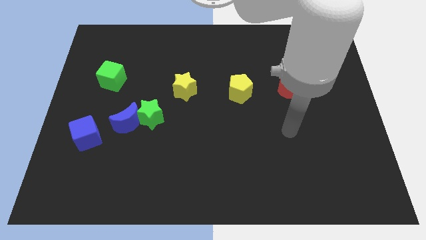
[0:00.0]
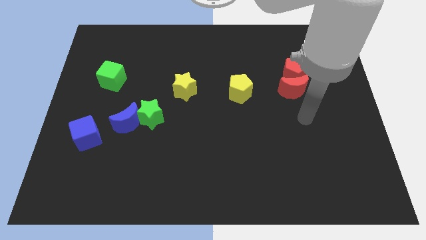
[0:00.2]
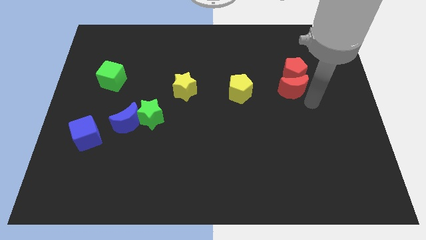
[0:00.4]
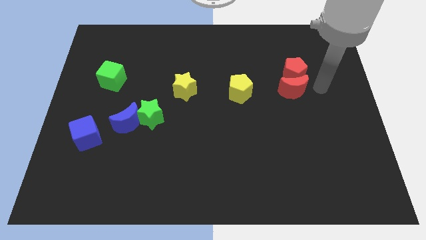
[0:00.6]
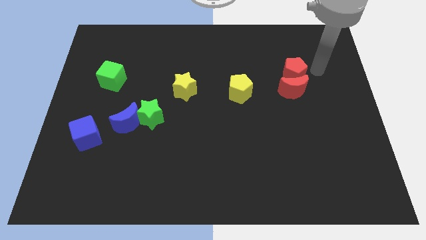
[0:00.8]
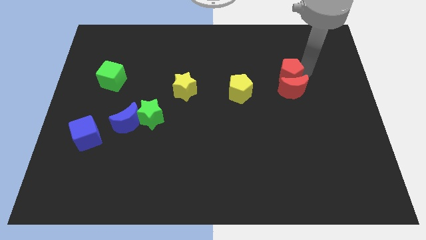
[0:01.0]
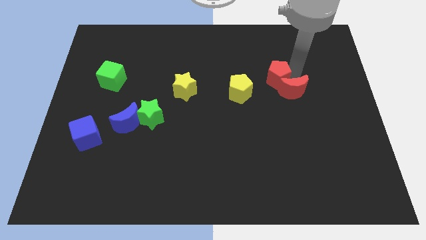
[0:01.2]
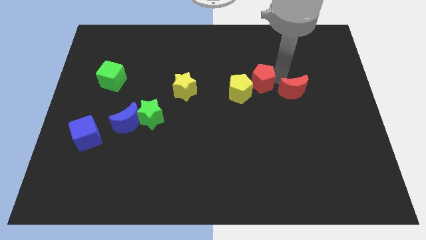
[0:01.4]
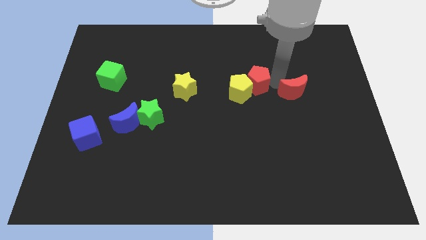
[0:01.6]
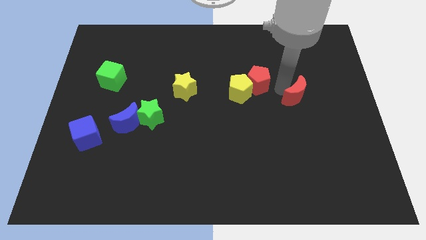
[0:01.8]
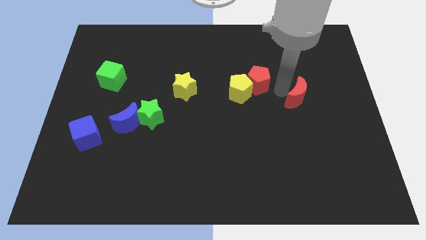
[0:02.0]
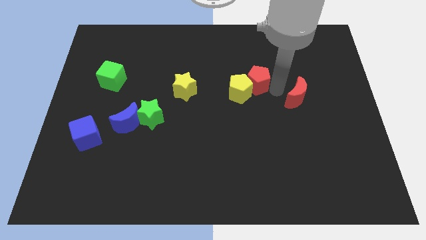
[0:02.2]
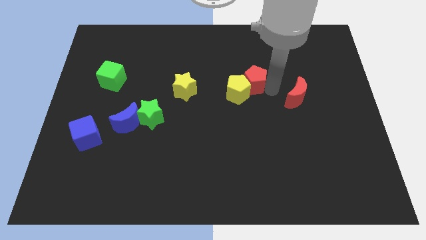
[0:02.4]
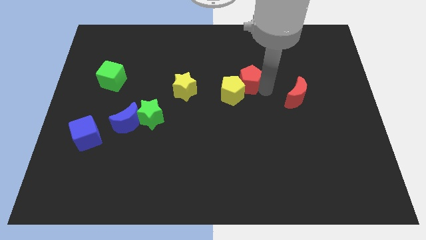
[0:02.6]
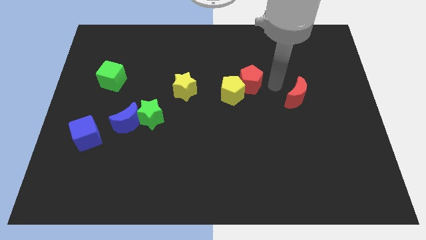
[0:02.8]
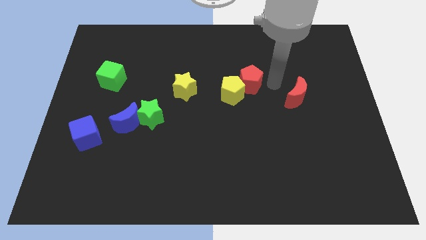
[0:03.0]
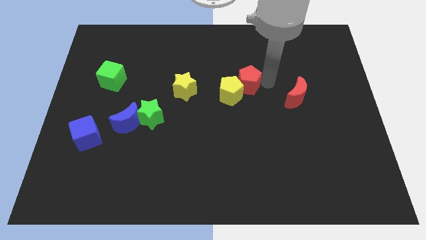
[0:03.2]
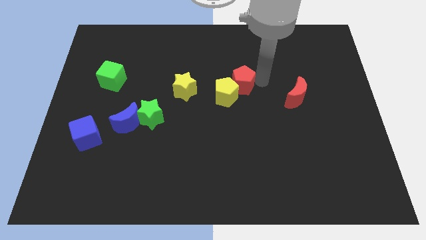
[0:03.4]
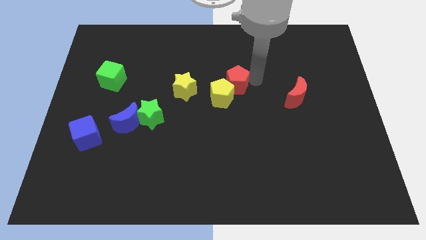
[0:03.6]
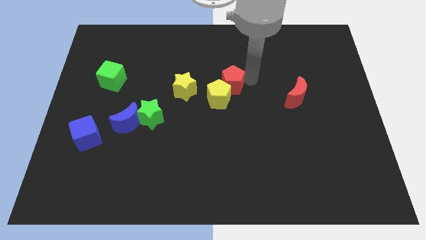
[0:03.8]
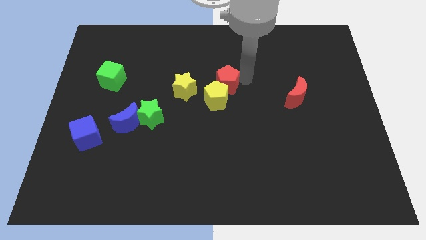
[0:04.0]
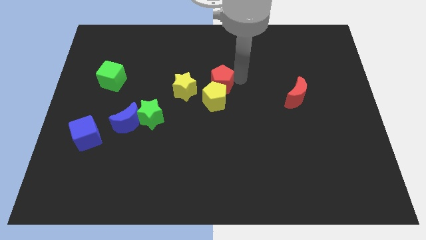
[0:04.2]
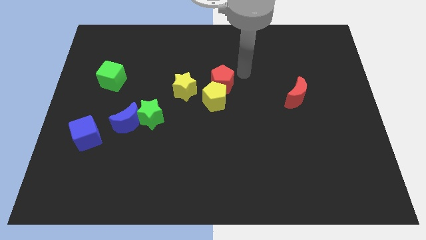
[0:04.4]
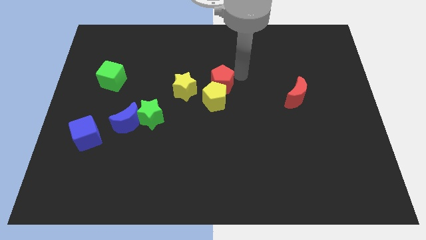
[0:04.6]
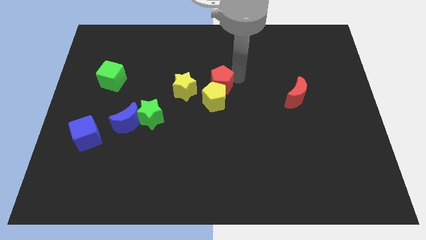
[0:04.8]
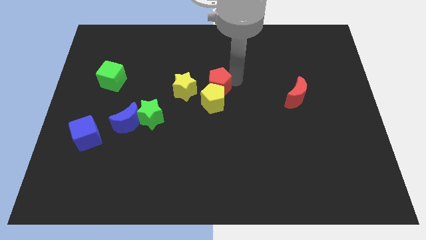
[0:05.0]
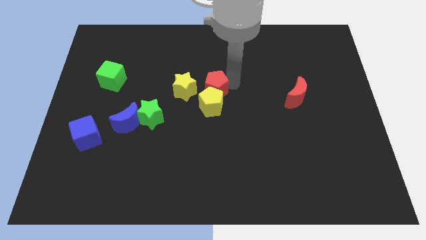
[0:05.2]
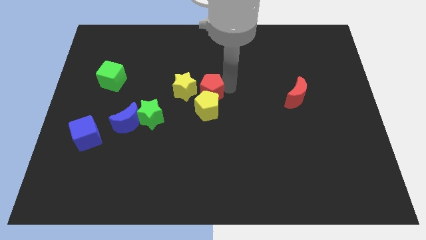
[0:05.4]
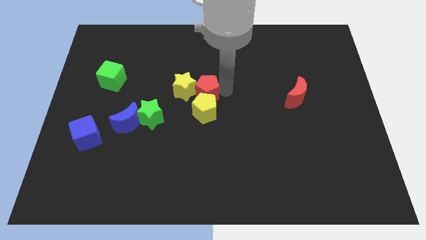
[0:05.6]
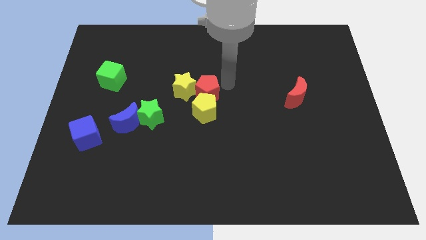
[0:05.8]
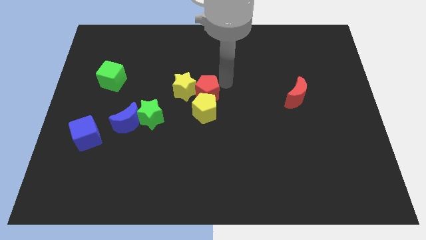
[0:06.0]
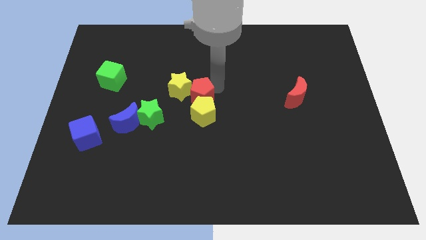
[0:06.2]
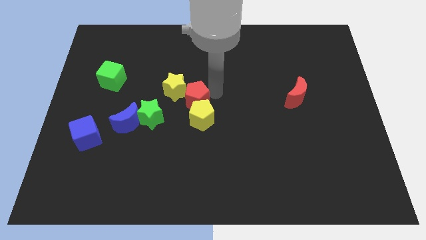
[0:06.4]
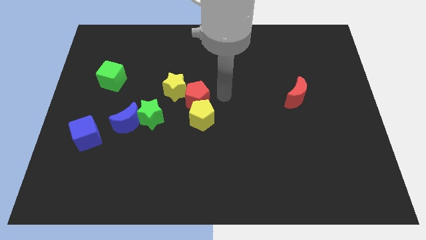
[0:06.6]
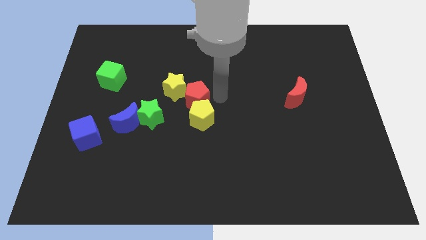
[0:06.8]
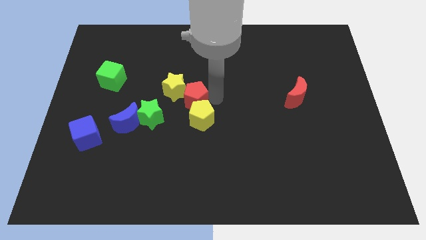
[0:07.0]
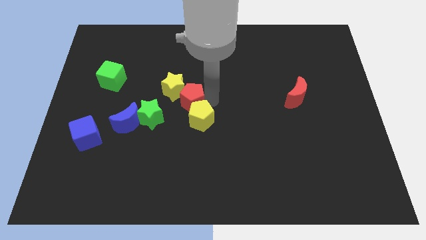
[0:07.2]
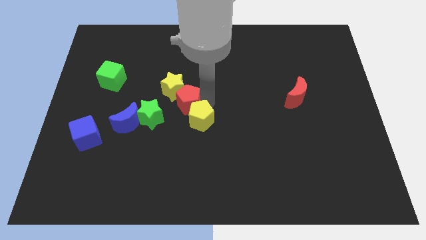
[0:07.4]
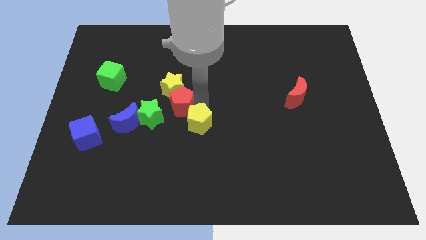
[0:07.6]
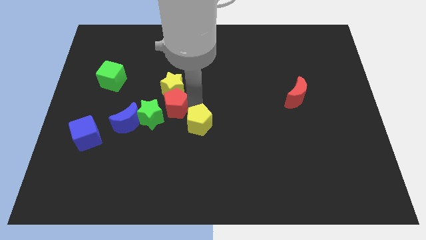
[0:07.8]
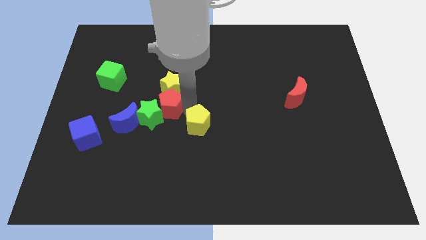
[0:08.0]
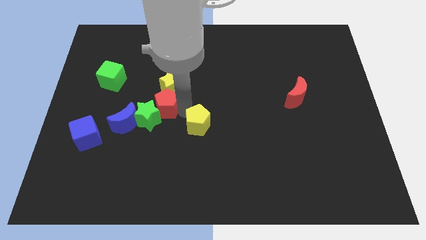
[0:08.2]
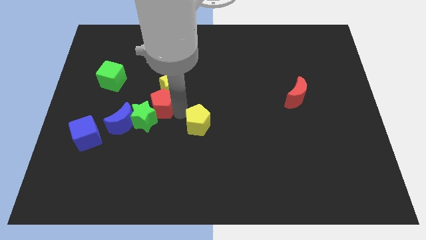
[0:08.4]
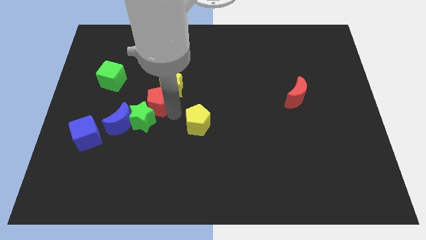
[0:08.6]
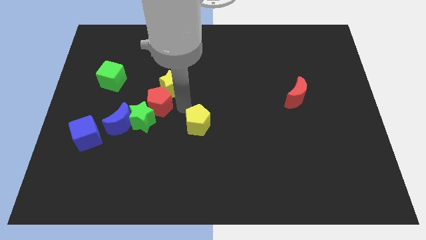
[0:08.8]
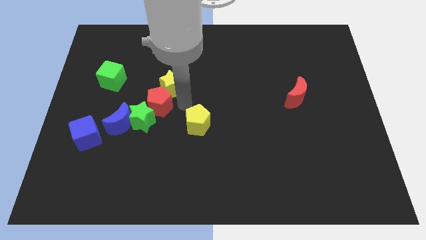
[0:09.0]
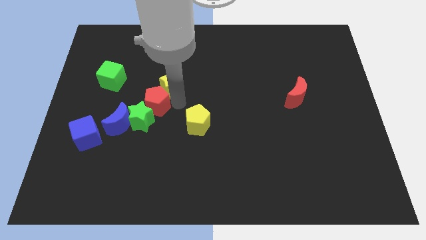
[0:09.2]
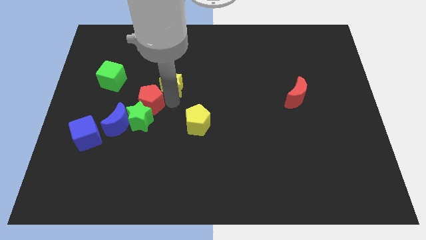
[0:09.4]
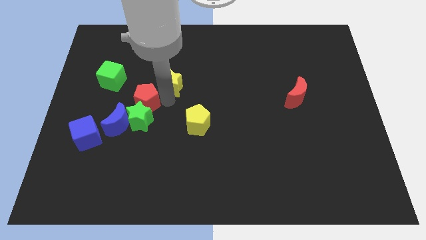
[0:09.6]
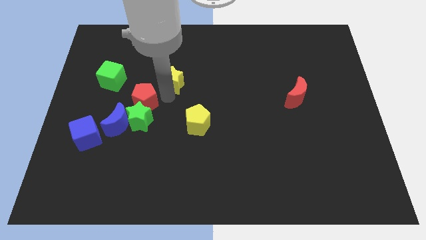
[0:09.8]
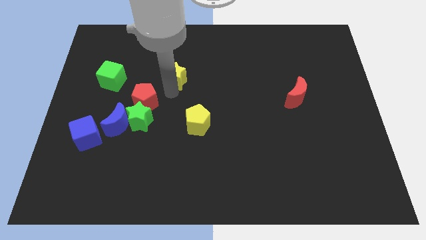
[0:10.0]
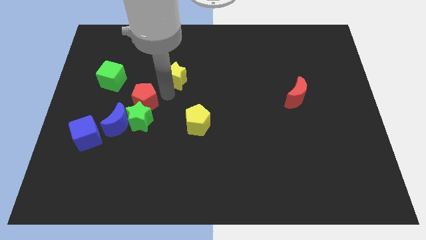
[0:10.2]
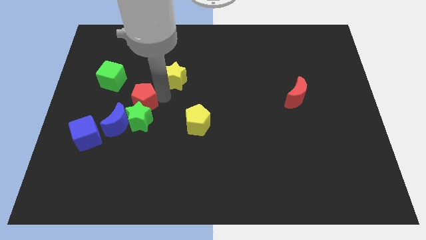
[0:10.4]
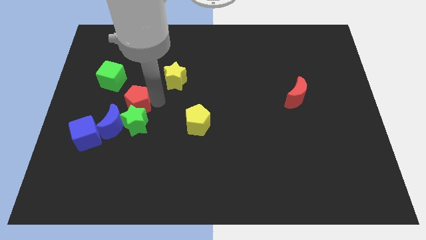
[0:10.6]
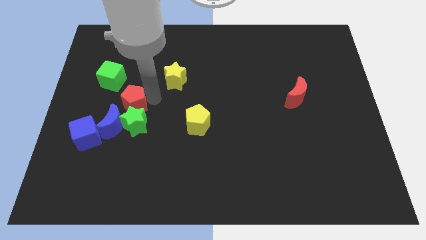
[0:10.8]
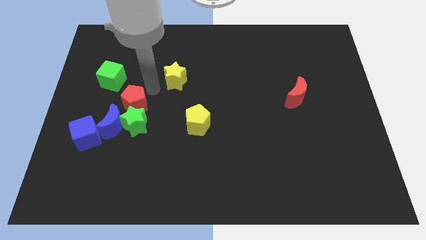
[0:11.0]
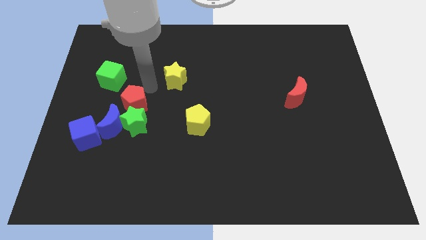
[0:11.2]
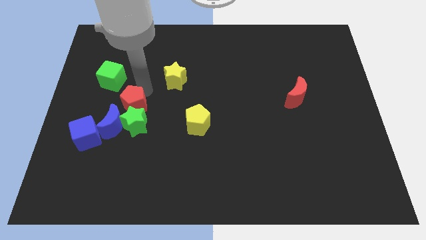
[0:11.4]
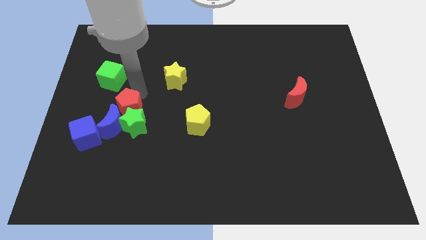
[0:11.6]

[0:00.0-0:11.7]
slide the red pentagon to the blue moon

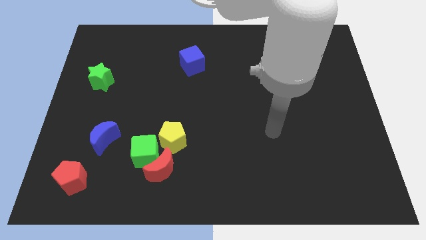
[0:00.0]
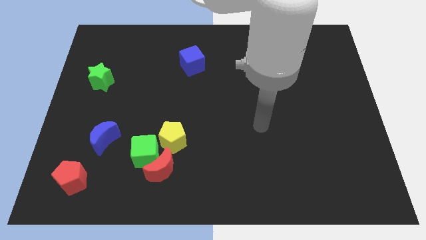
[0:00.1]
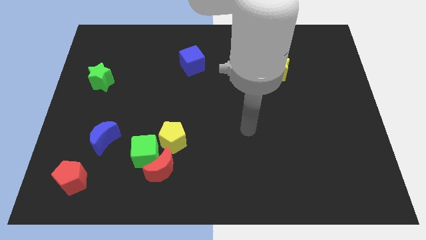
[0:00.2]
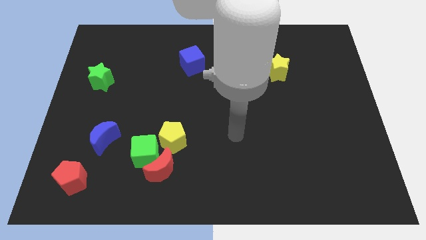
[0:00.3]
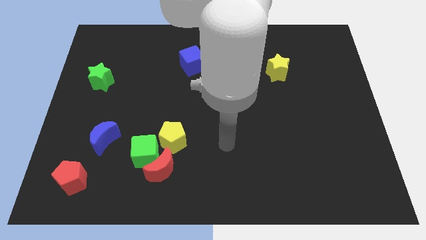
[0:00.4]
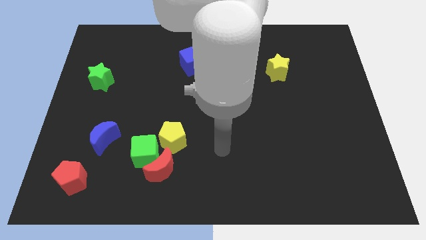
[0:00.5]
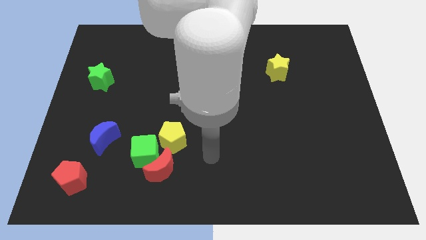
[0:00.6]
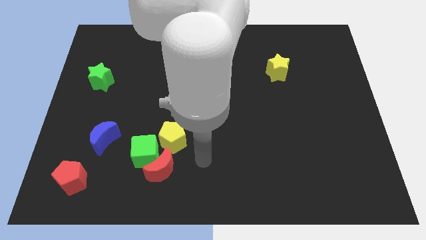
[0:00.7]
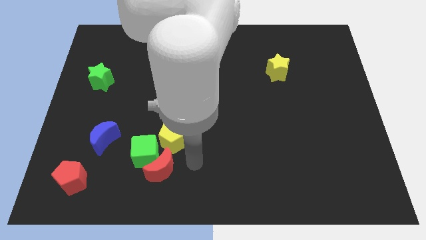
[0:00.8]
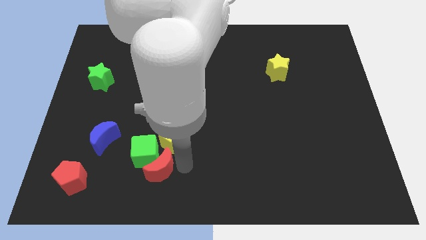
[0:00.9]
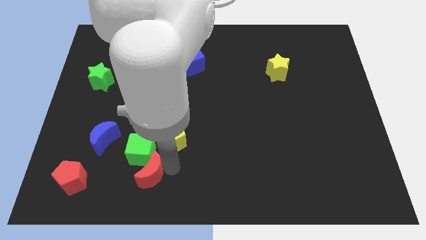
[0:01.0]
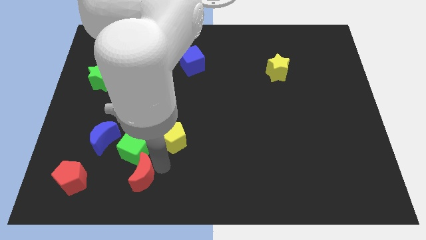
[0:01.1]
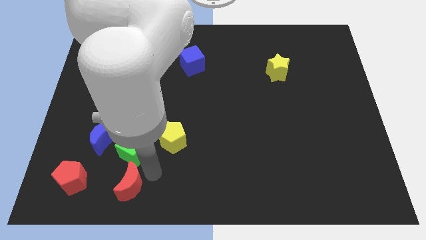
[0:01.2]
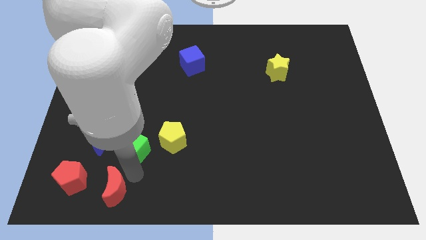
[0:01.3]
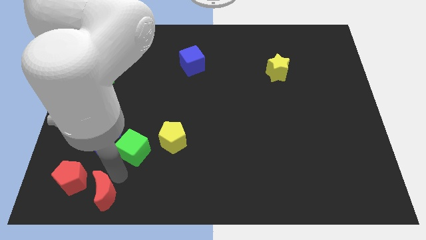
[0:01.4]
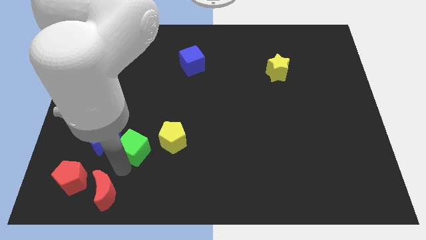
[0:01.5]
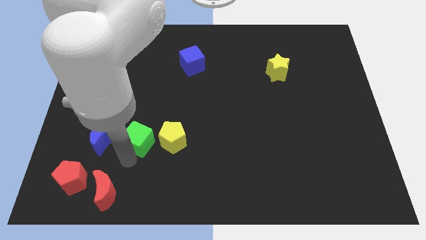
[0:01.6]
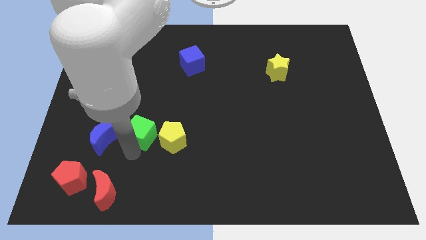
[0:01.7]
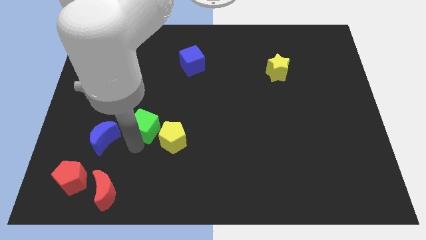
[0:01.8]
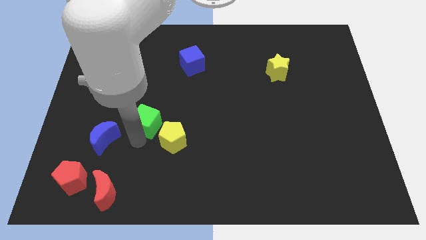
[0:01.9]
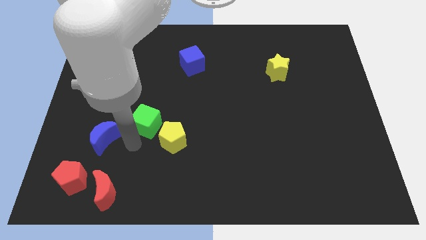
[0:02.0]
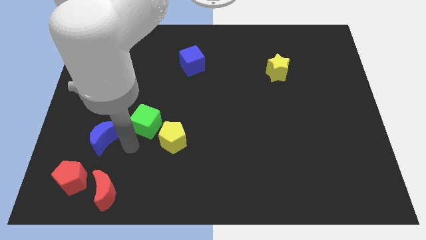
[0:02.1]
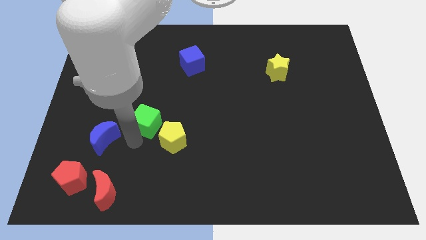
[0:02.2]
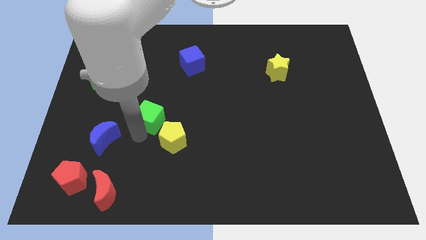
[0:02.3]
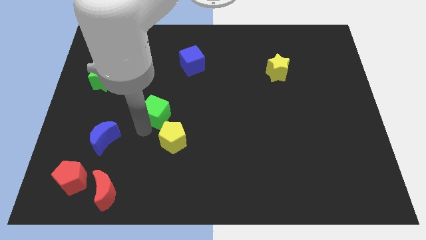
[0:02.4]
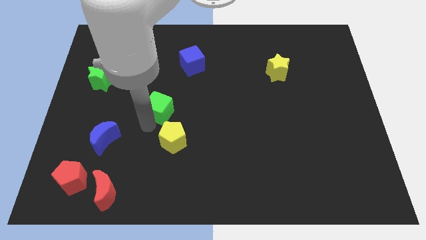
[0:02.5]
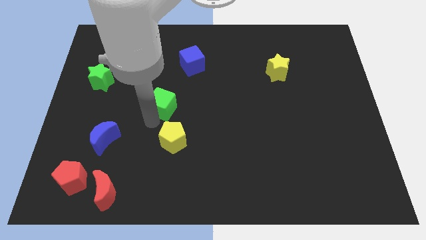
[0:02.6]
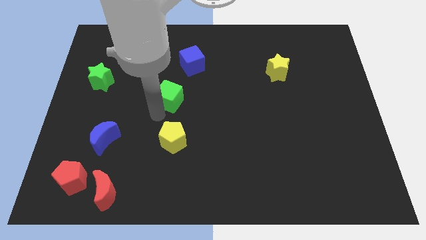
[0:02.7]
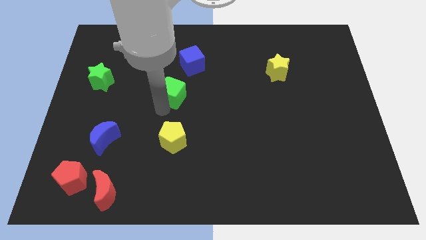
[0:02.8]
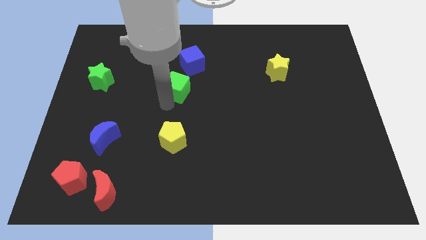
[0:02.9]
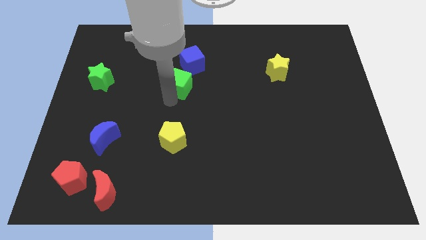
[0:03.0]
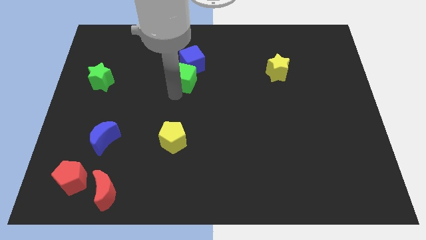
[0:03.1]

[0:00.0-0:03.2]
slide the green cube towards the blue cube
